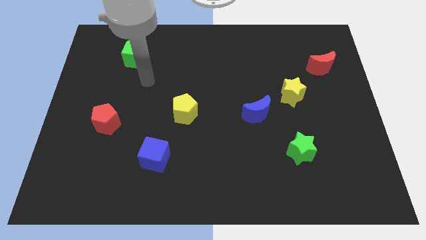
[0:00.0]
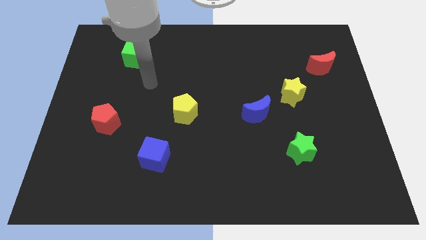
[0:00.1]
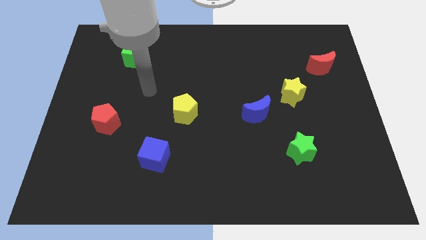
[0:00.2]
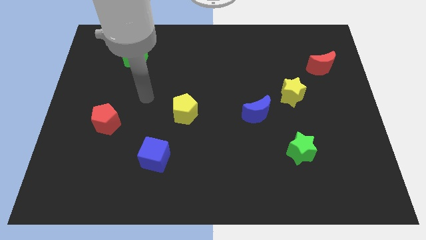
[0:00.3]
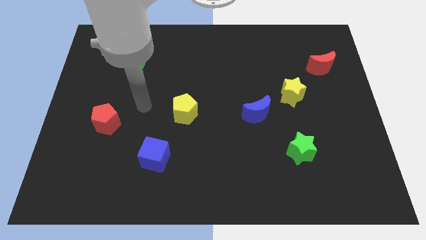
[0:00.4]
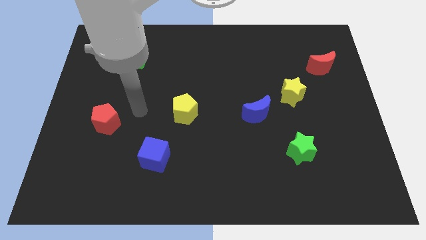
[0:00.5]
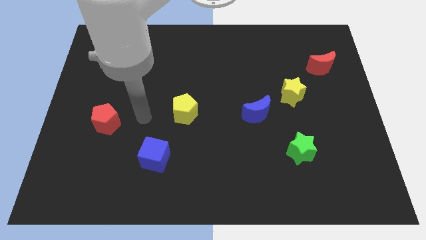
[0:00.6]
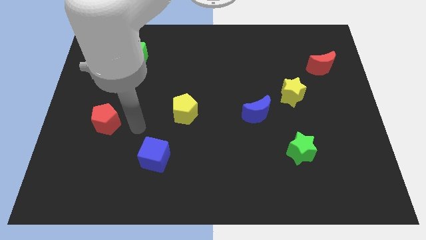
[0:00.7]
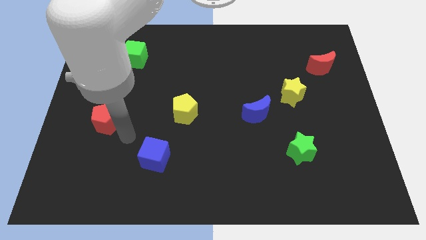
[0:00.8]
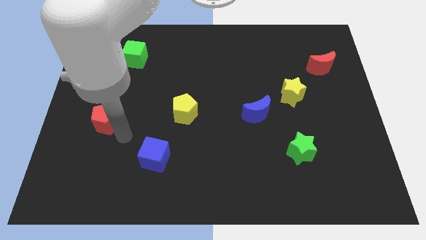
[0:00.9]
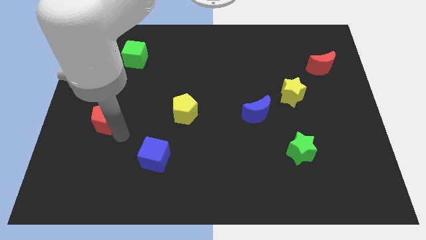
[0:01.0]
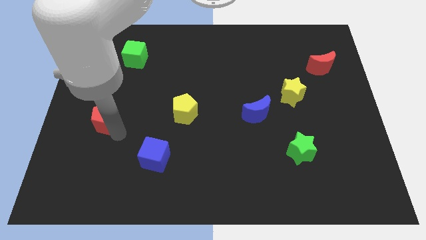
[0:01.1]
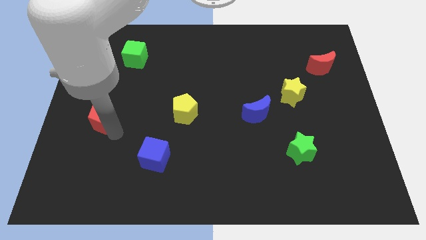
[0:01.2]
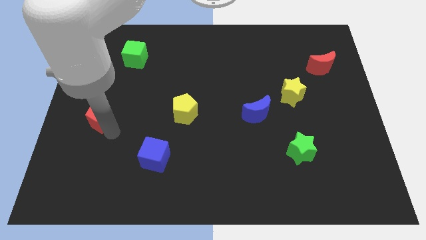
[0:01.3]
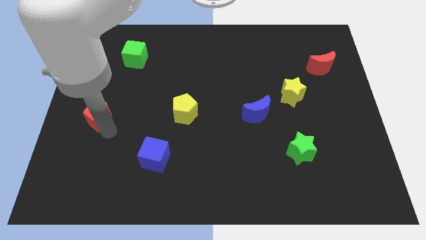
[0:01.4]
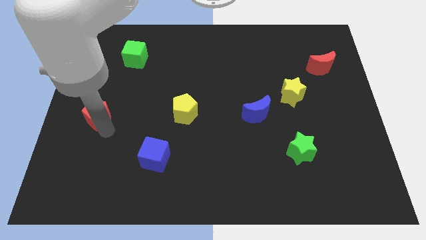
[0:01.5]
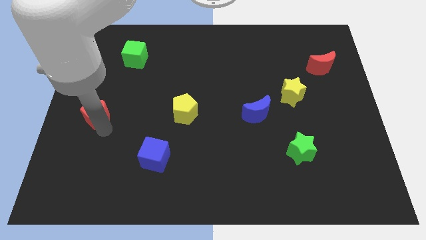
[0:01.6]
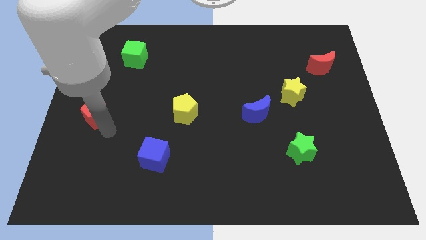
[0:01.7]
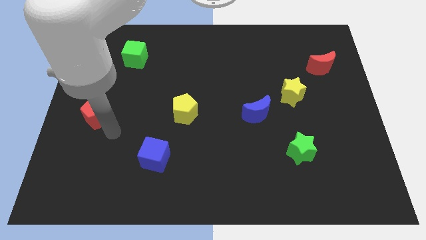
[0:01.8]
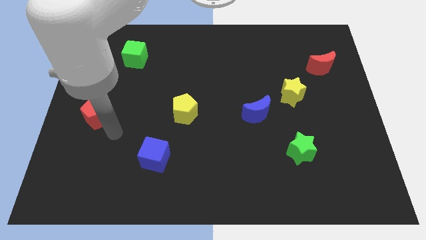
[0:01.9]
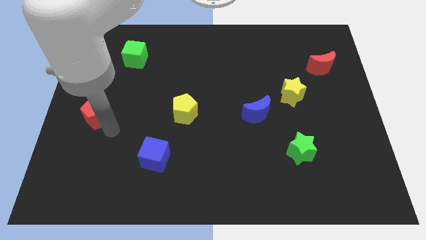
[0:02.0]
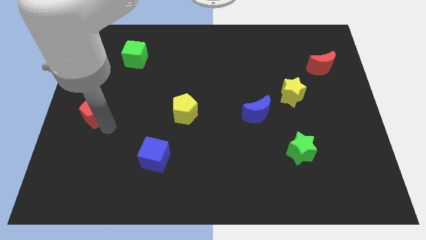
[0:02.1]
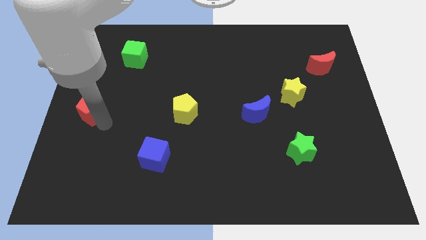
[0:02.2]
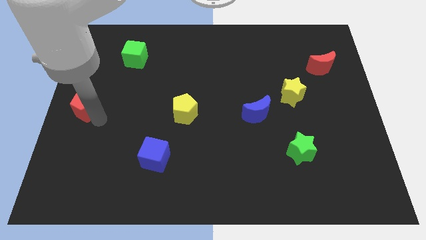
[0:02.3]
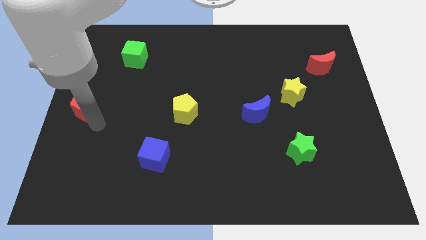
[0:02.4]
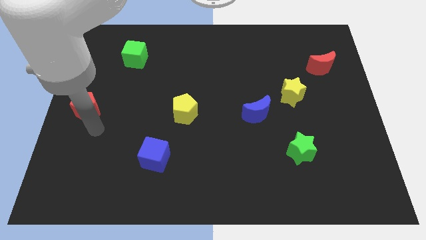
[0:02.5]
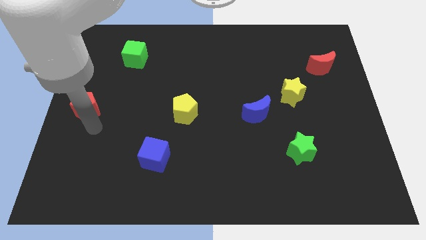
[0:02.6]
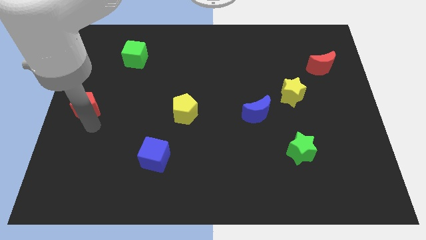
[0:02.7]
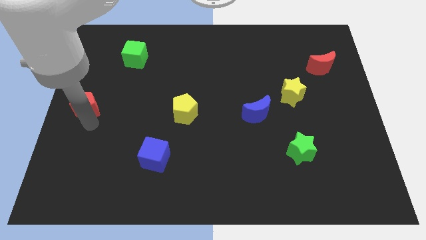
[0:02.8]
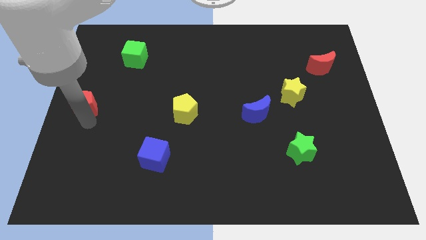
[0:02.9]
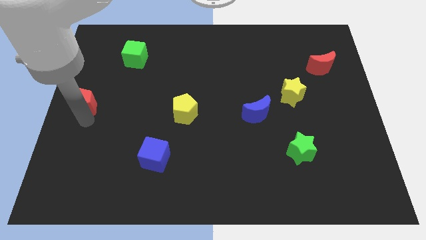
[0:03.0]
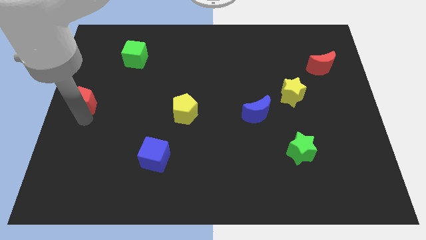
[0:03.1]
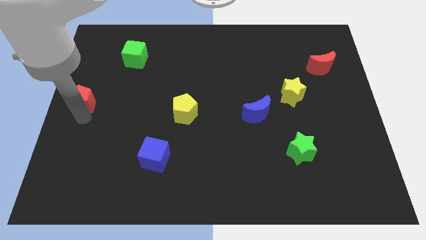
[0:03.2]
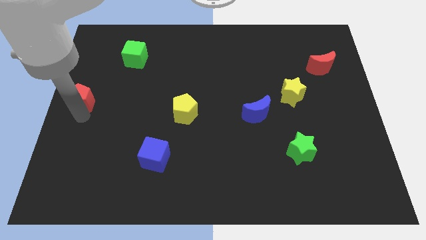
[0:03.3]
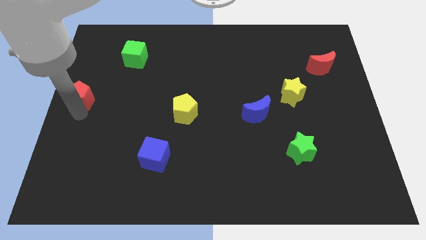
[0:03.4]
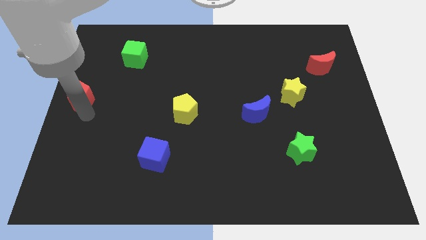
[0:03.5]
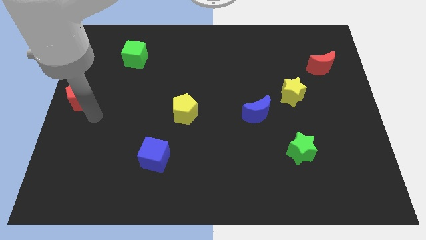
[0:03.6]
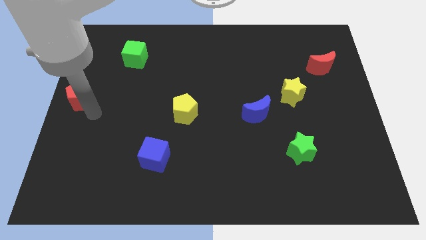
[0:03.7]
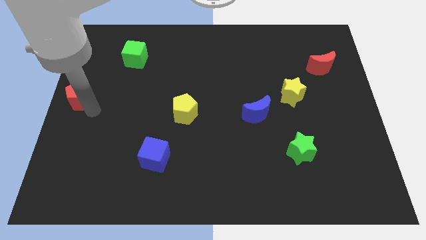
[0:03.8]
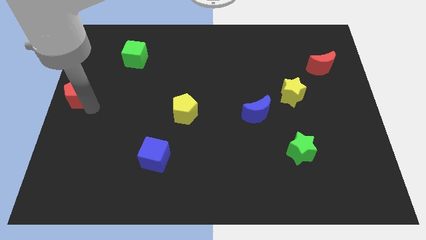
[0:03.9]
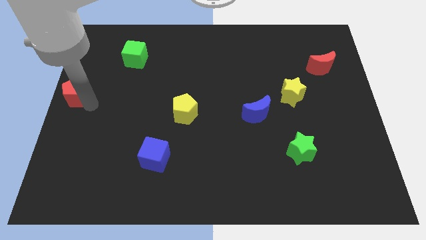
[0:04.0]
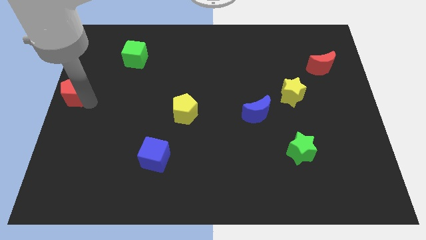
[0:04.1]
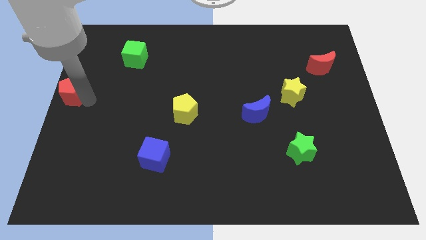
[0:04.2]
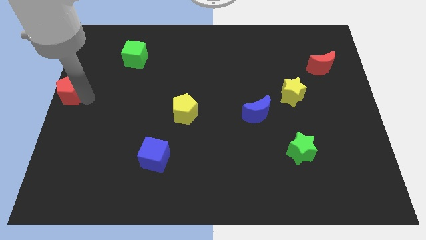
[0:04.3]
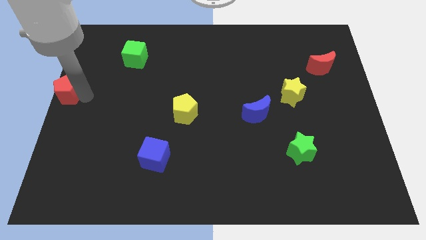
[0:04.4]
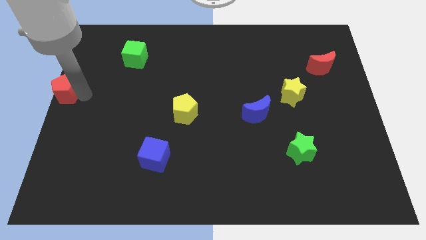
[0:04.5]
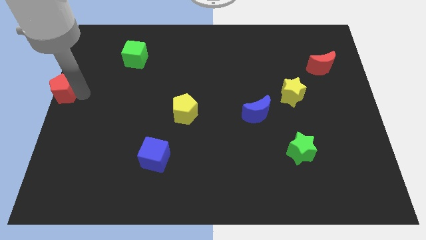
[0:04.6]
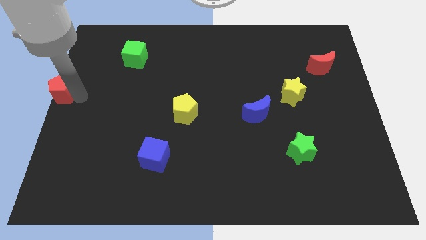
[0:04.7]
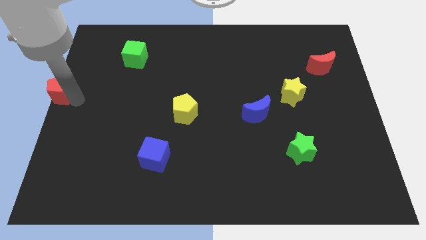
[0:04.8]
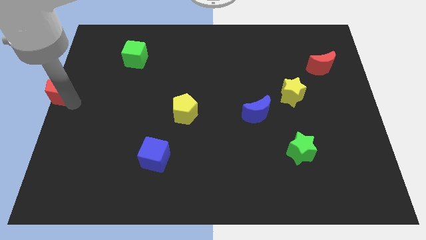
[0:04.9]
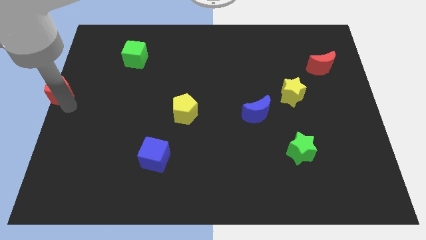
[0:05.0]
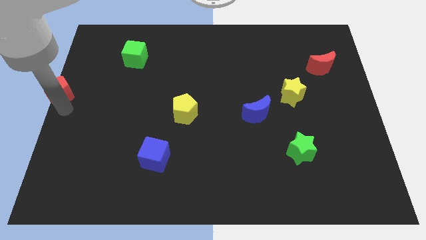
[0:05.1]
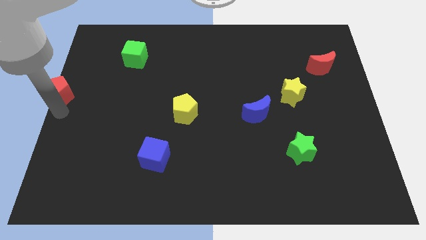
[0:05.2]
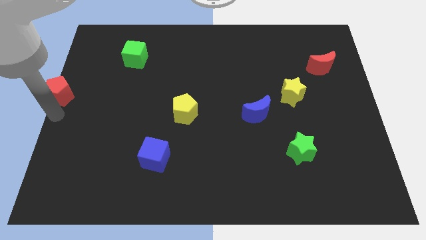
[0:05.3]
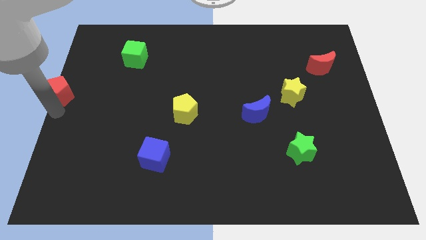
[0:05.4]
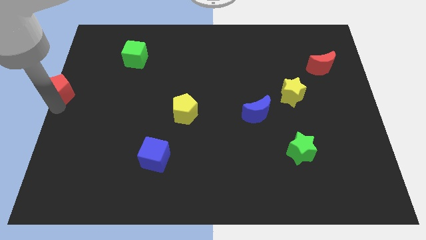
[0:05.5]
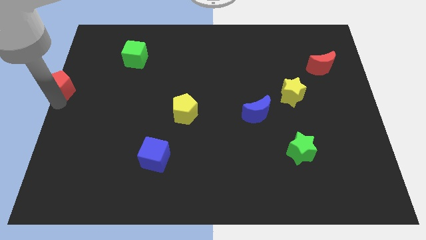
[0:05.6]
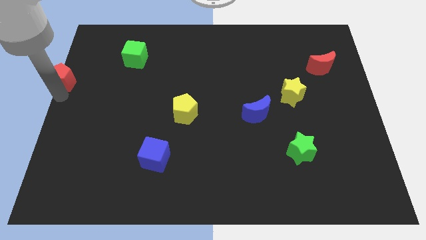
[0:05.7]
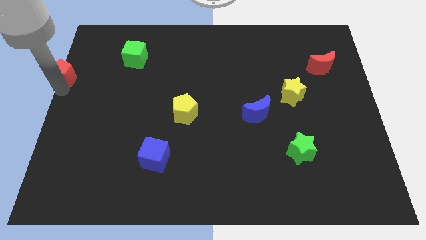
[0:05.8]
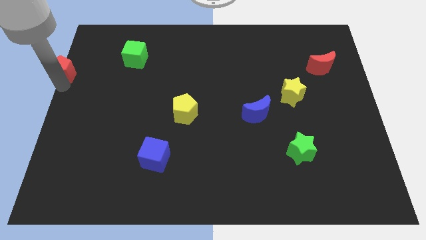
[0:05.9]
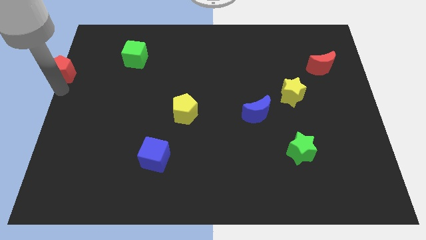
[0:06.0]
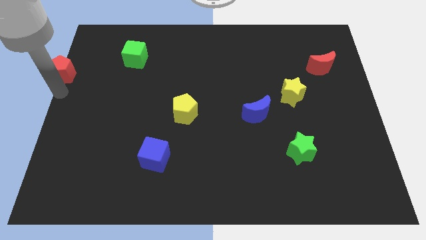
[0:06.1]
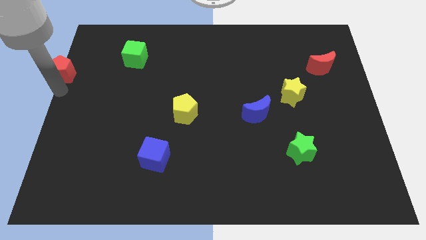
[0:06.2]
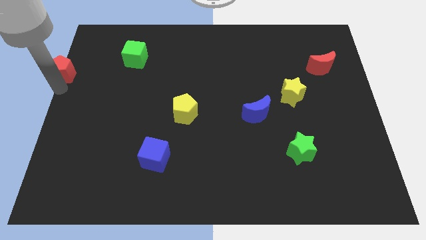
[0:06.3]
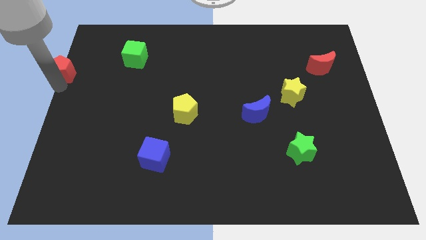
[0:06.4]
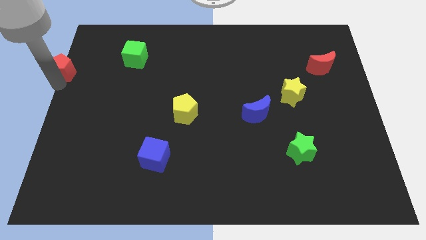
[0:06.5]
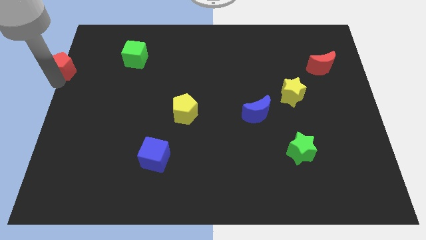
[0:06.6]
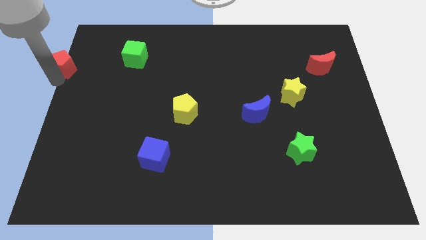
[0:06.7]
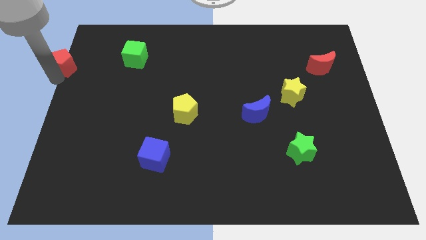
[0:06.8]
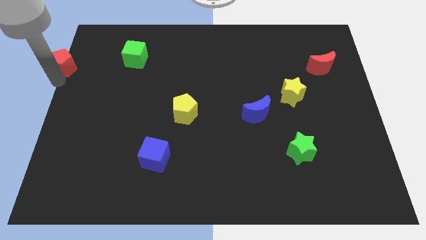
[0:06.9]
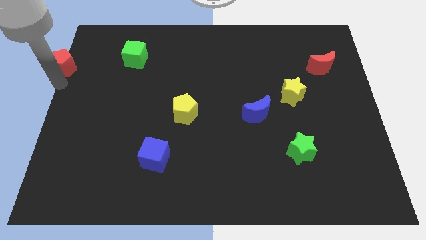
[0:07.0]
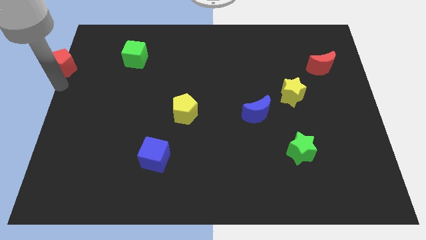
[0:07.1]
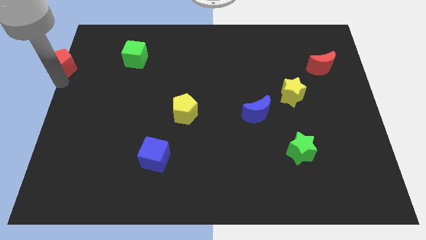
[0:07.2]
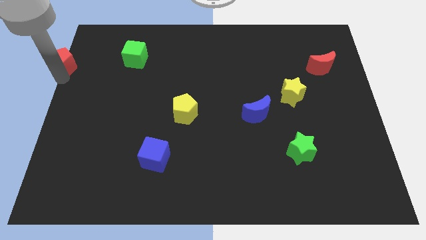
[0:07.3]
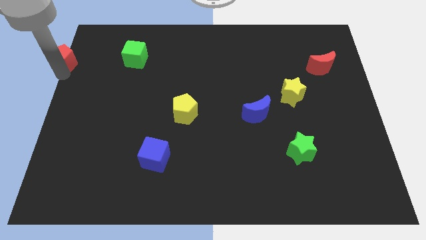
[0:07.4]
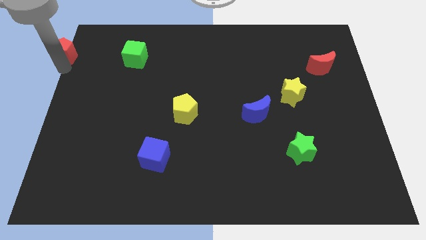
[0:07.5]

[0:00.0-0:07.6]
push the red pentagon to the top left
